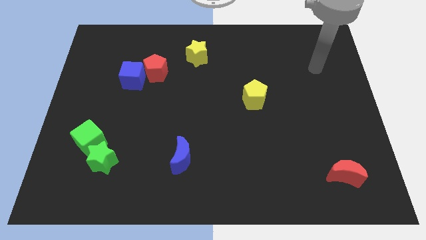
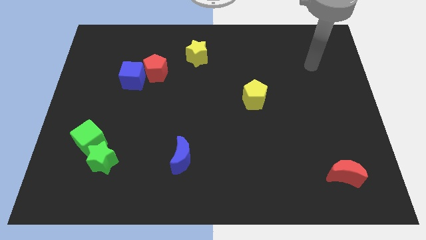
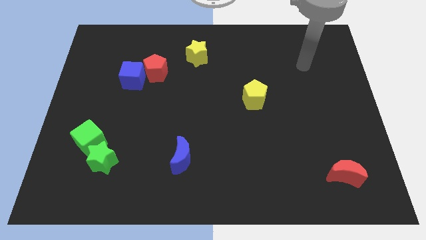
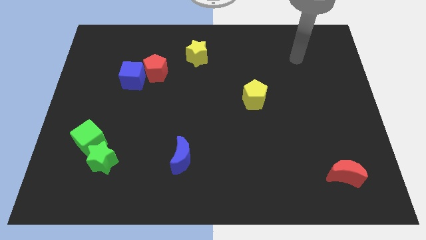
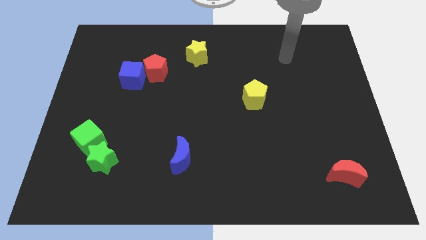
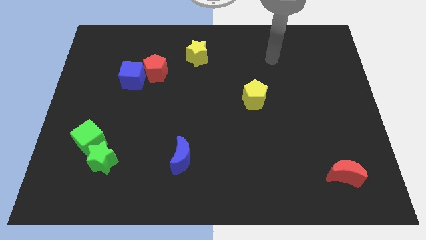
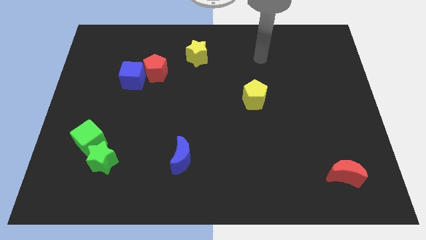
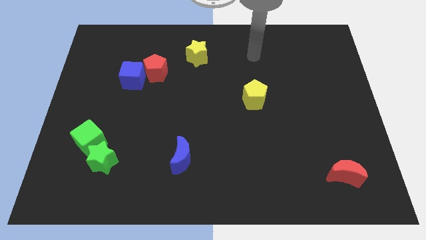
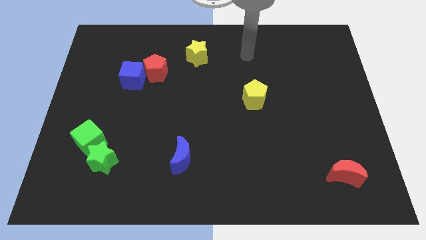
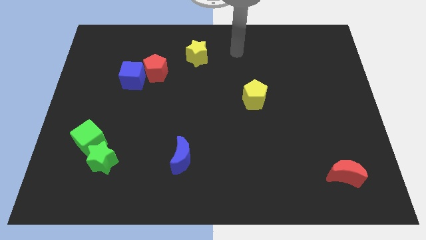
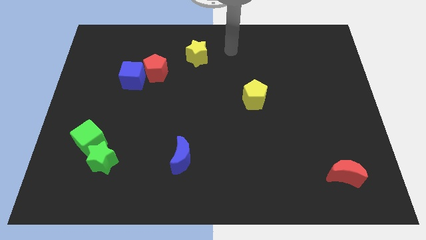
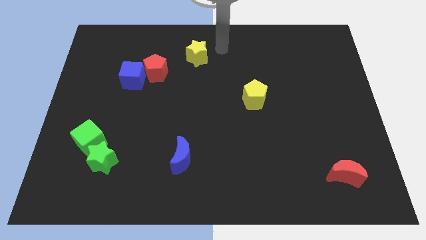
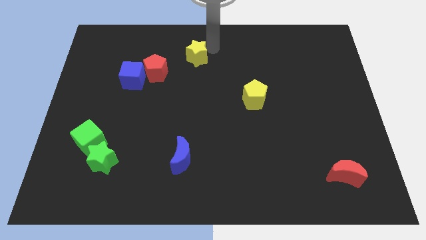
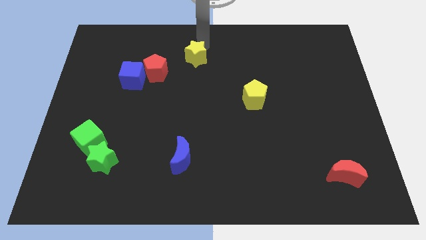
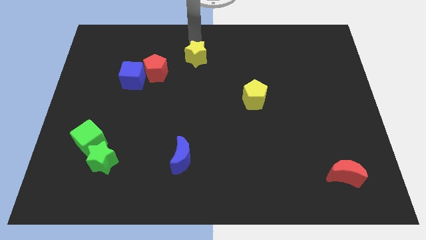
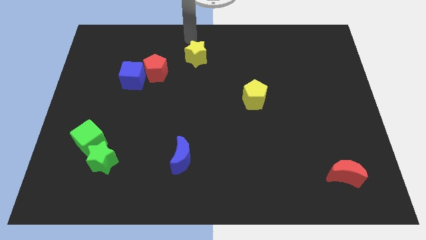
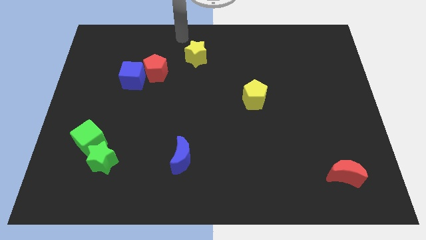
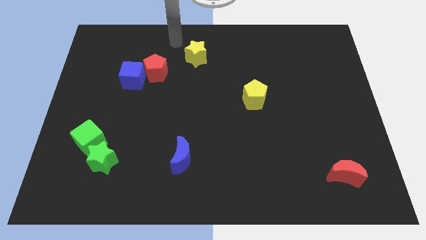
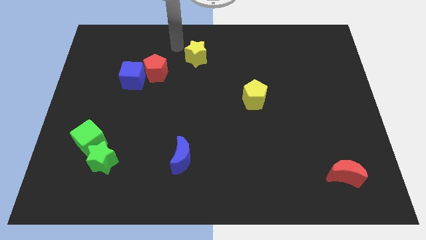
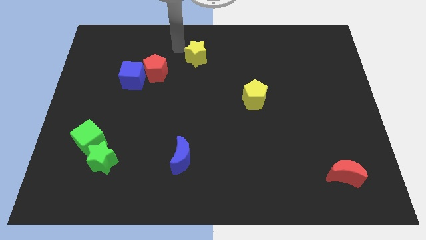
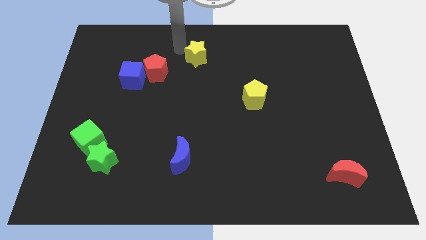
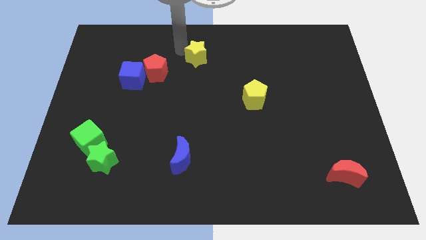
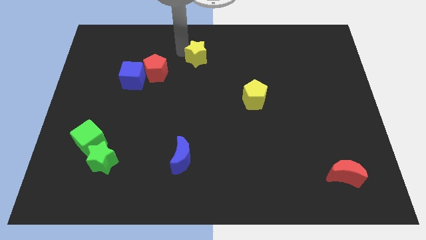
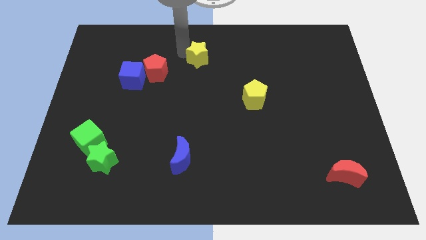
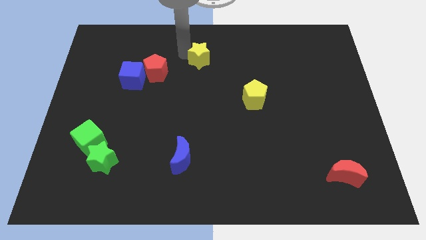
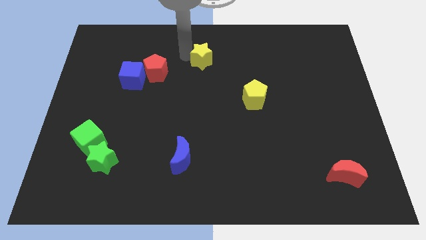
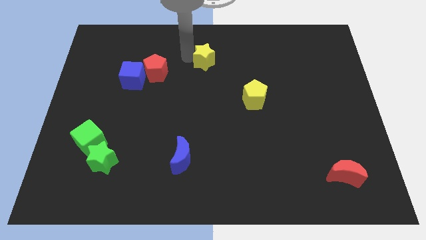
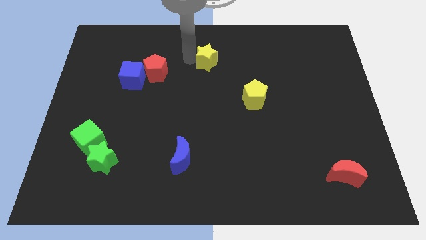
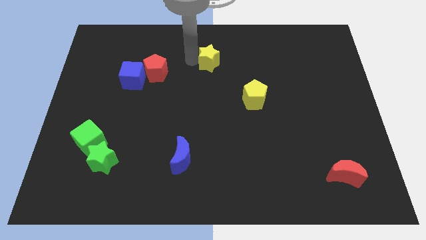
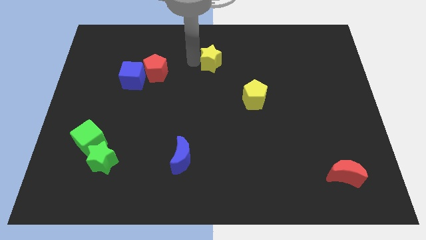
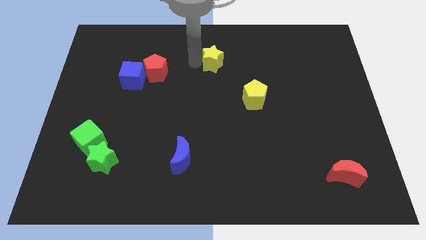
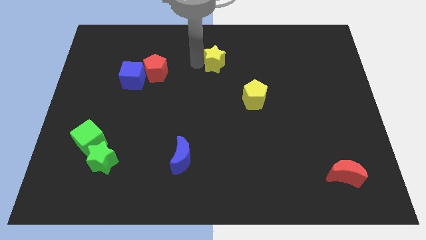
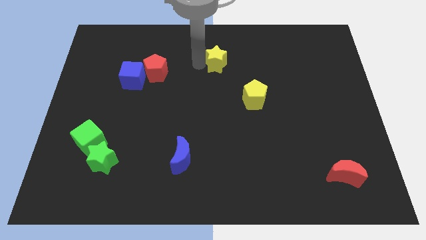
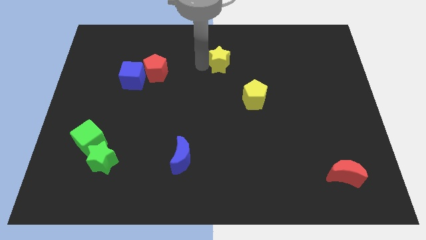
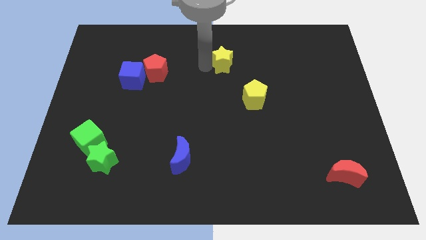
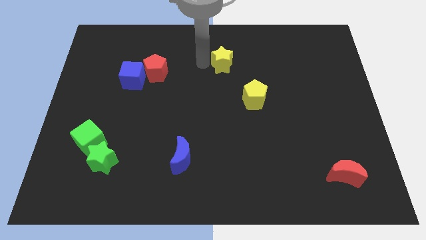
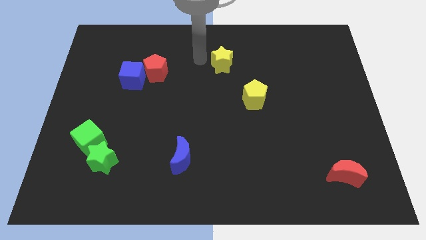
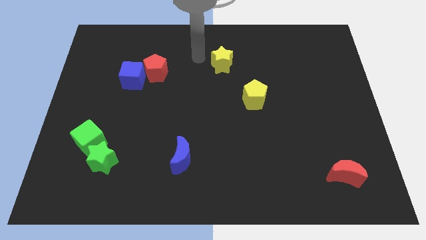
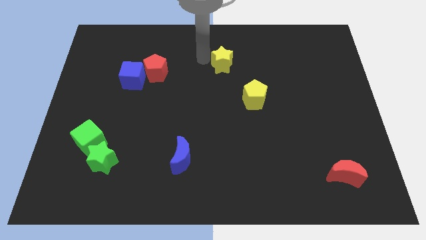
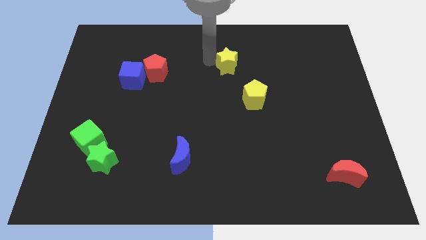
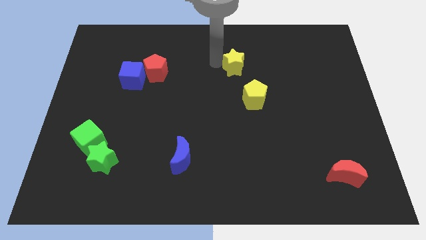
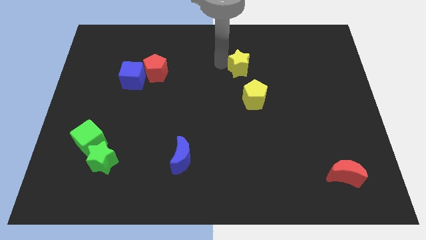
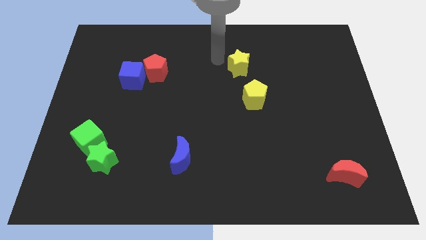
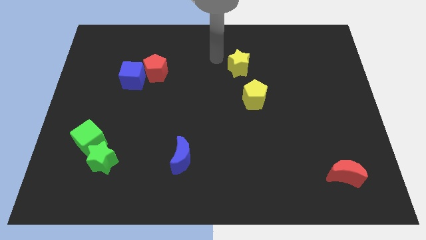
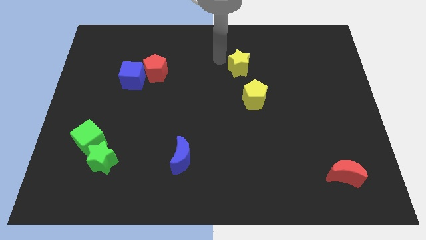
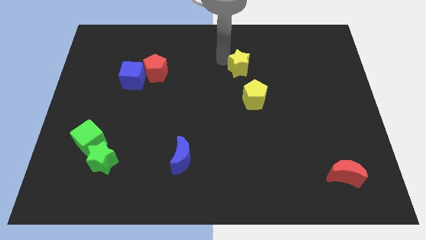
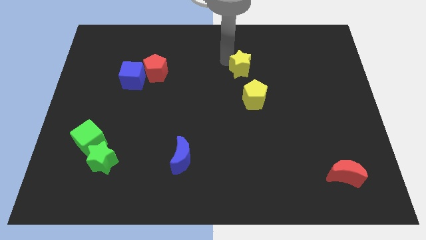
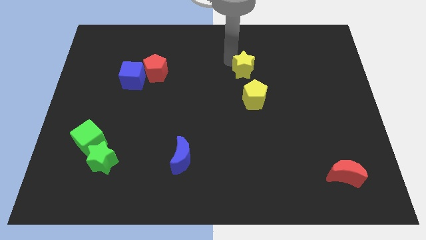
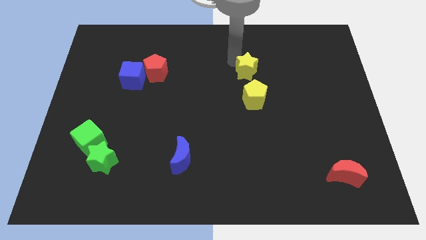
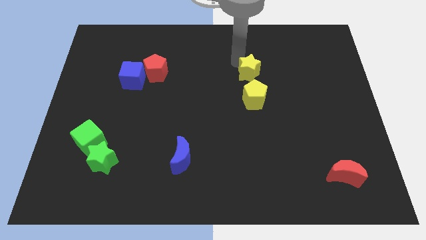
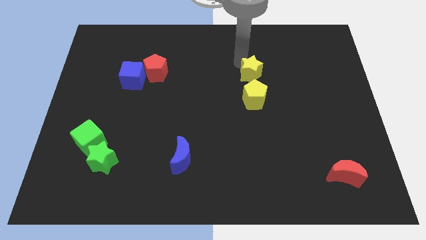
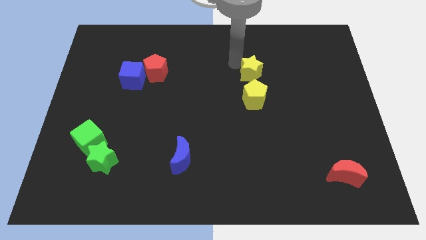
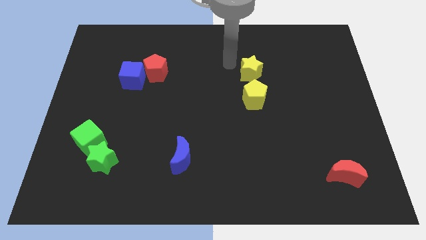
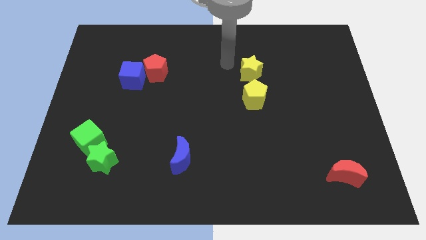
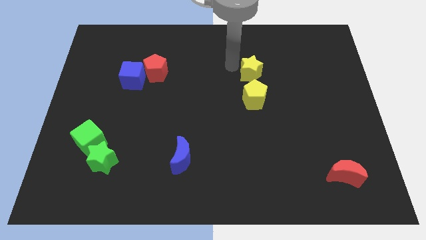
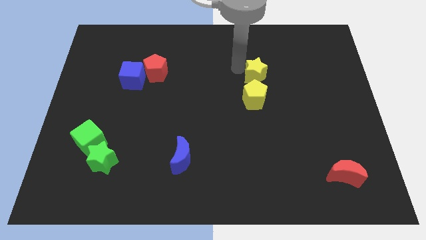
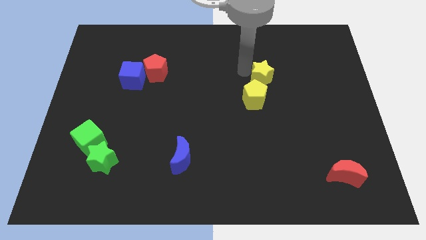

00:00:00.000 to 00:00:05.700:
push the yellow star to the top right side of the yellow pentagon

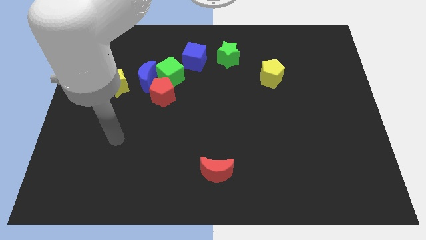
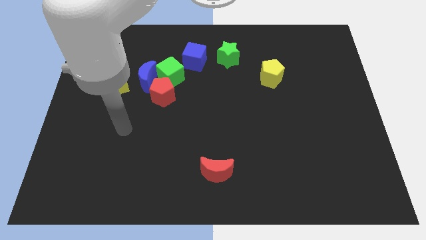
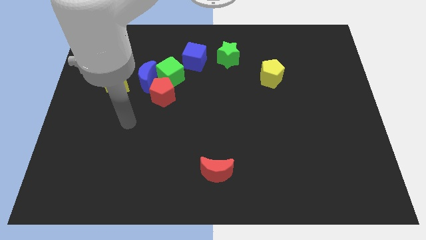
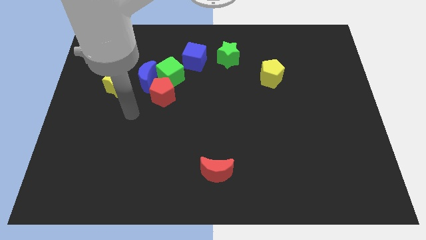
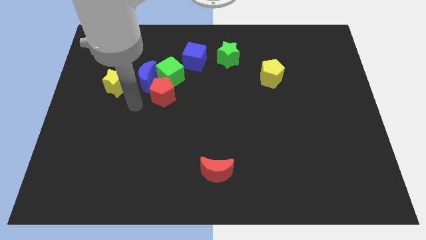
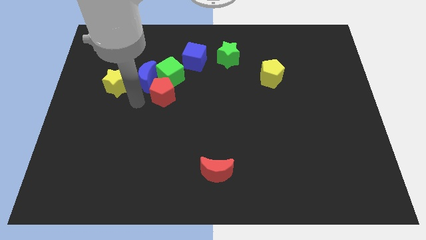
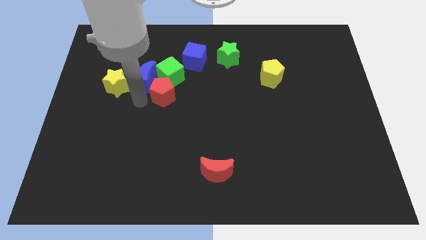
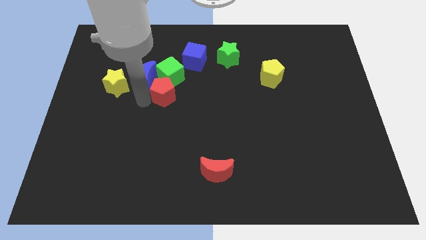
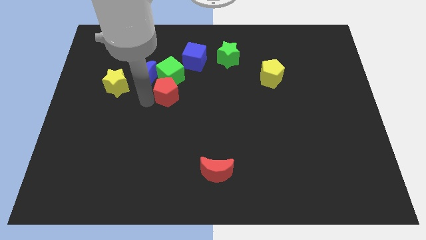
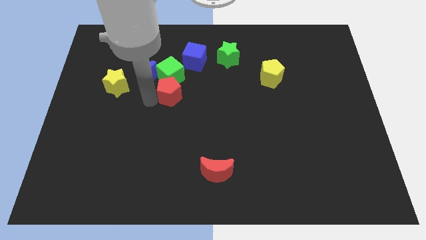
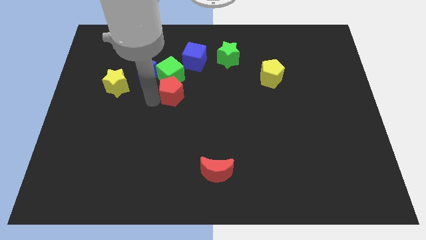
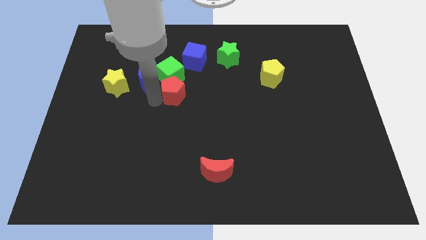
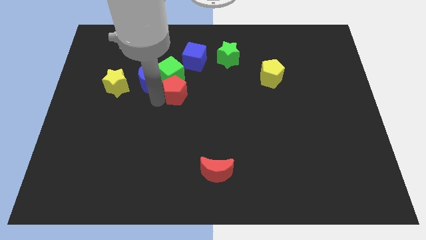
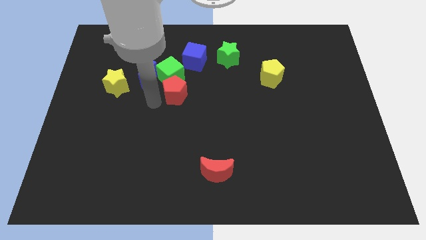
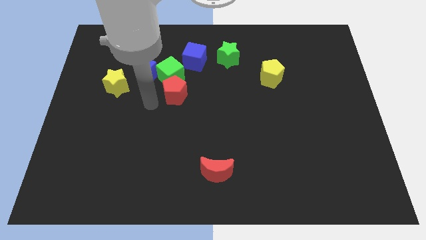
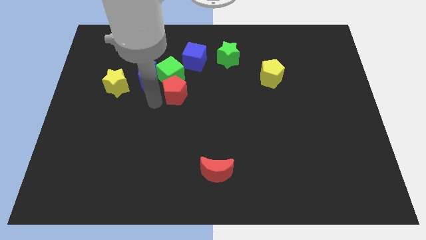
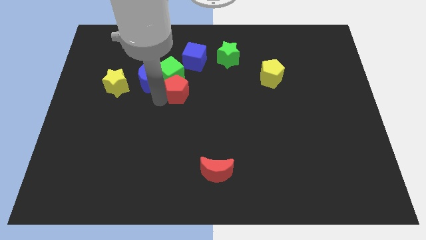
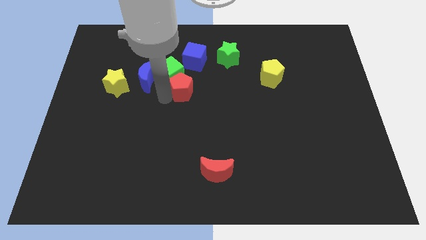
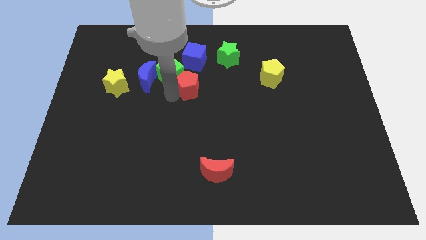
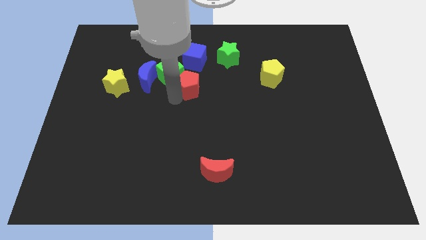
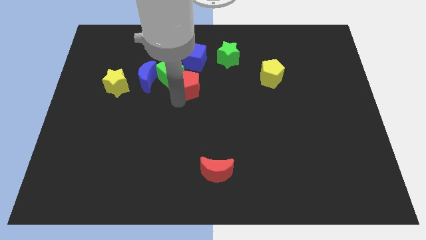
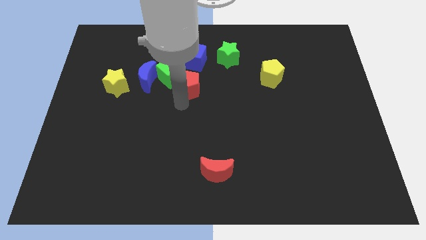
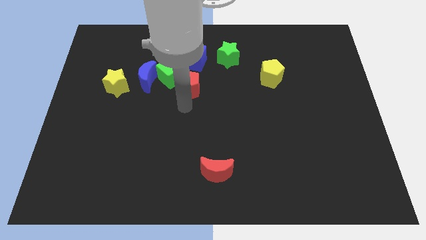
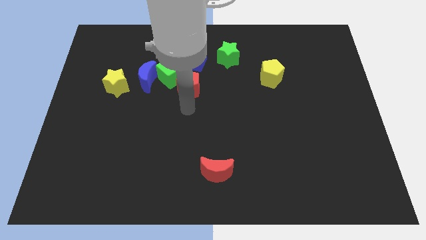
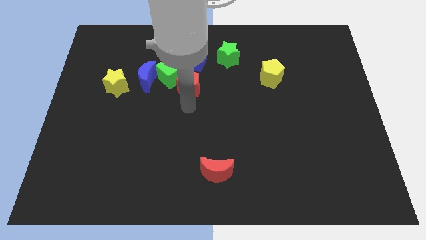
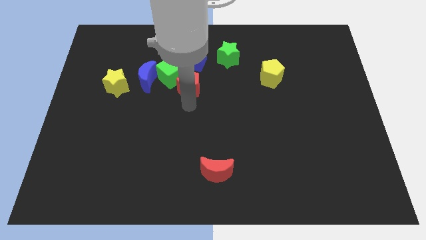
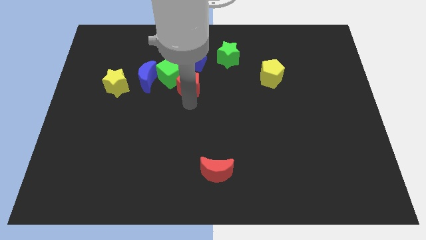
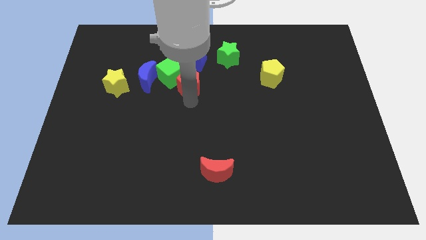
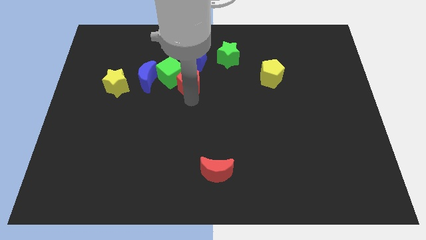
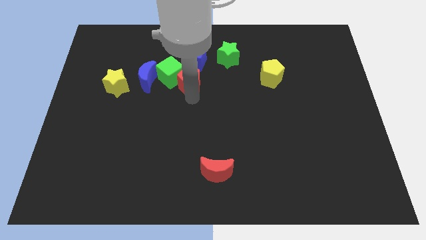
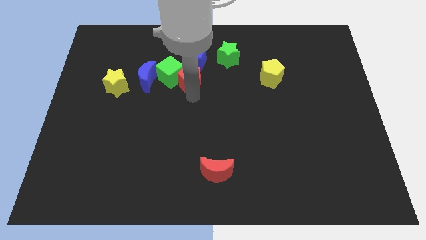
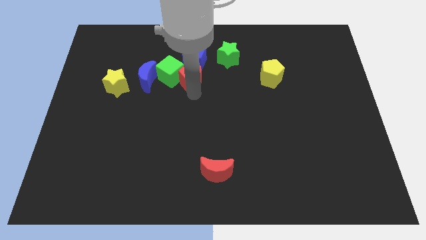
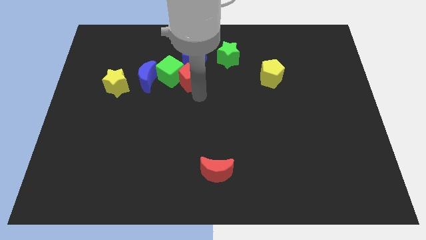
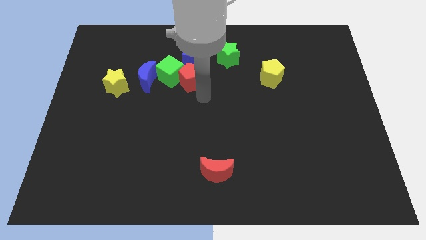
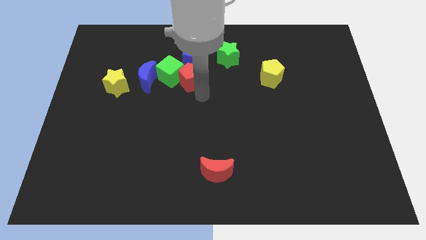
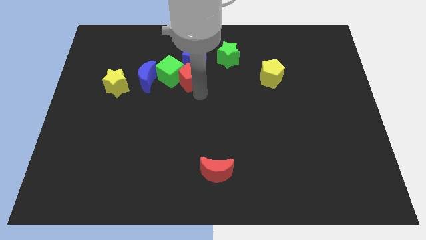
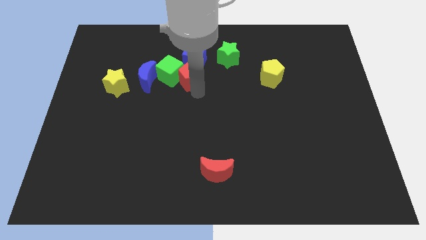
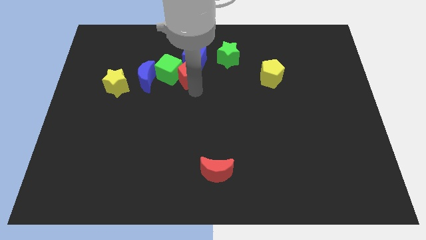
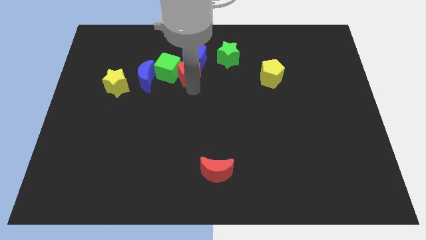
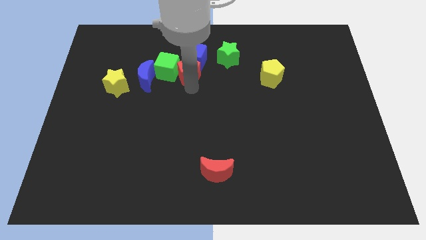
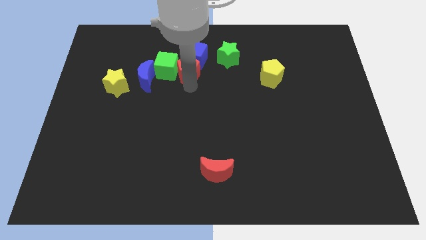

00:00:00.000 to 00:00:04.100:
slide the red pentagon to the left of the green star
